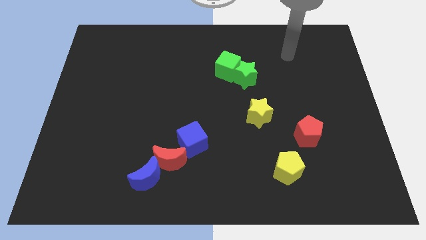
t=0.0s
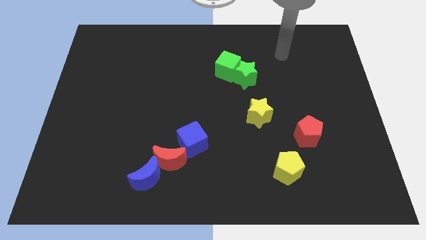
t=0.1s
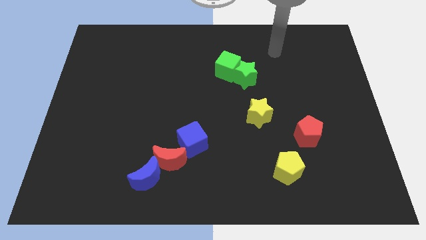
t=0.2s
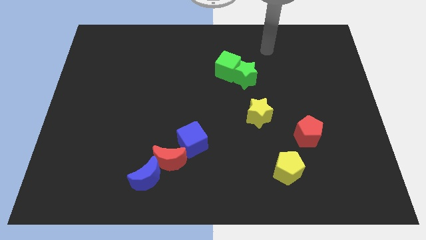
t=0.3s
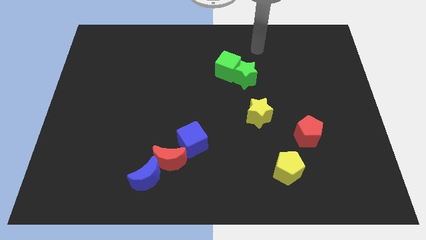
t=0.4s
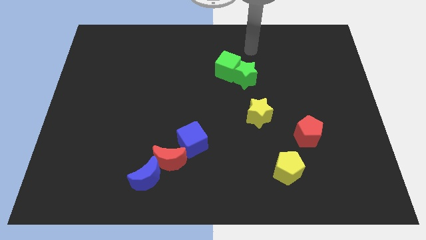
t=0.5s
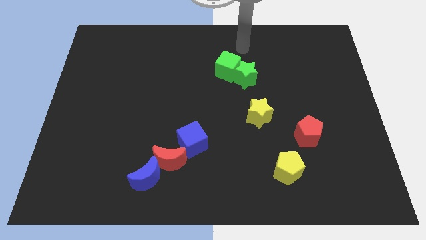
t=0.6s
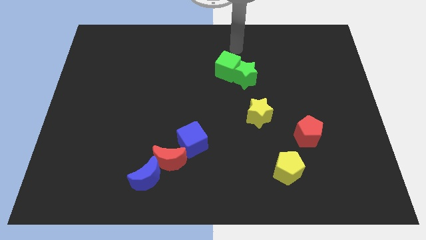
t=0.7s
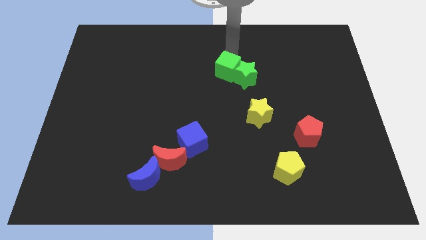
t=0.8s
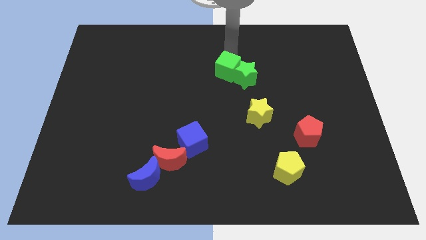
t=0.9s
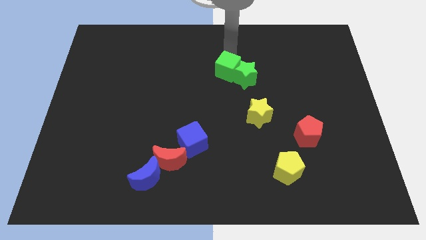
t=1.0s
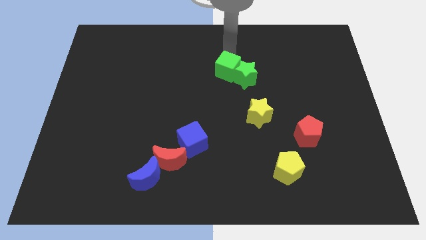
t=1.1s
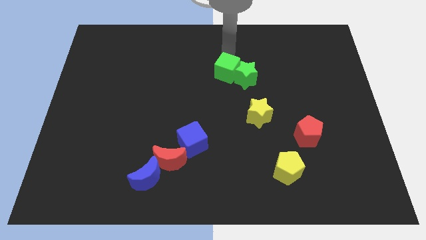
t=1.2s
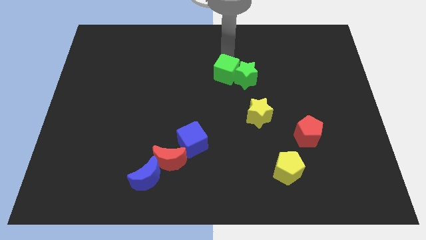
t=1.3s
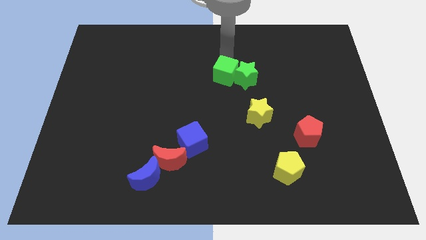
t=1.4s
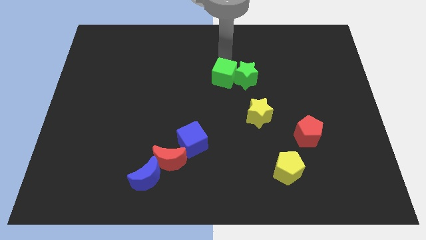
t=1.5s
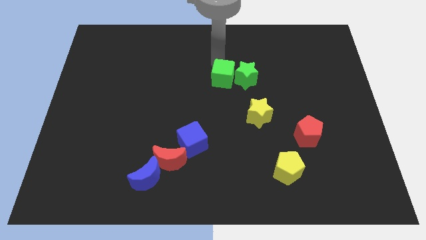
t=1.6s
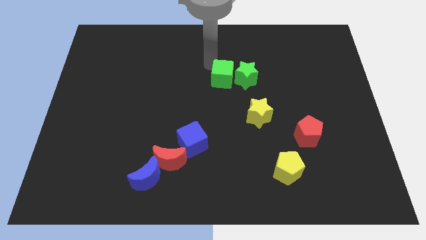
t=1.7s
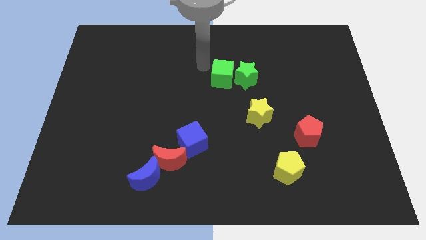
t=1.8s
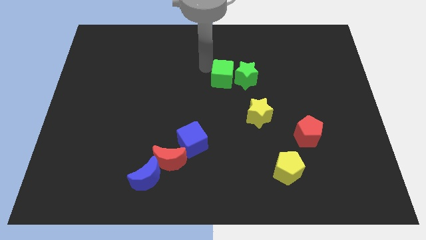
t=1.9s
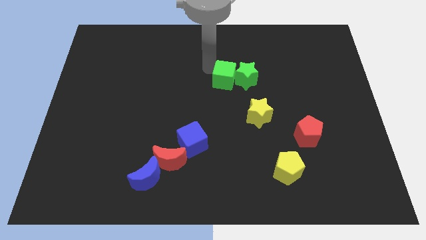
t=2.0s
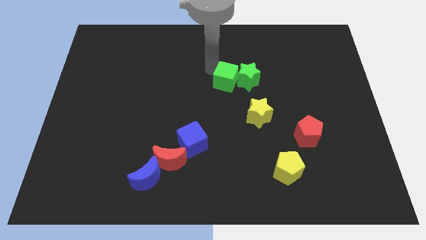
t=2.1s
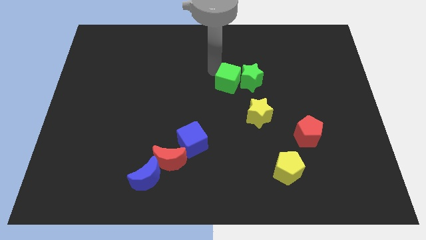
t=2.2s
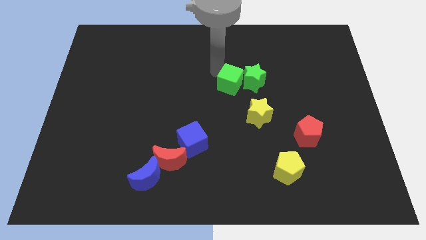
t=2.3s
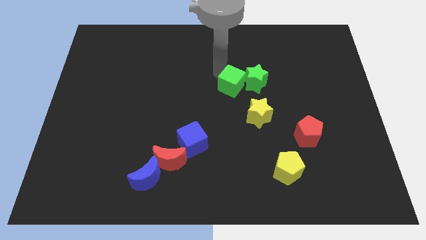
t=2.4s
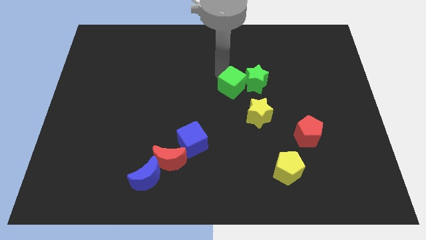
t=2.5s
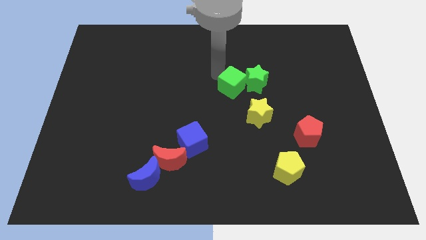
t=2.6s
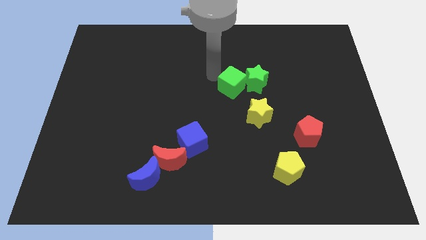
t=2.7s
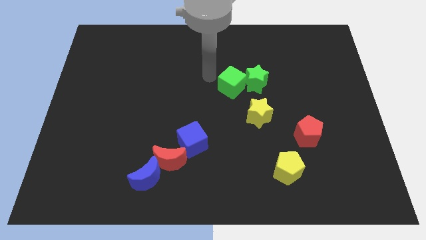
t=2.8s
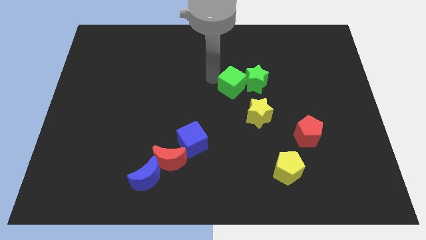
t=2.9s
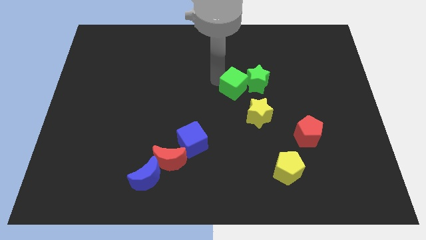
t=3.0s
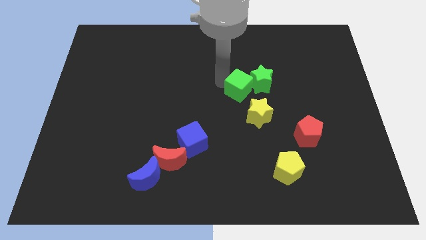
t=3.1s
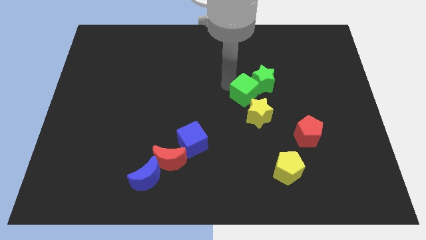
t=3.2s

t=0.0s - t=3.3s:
slightly push the green cube down and then right

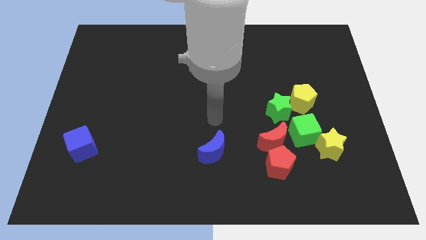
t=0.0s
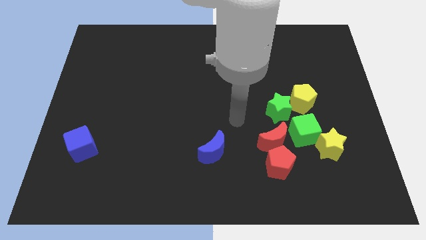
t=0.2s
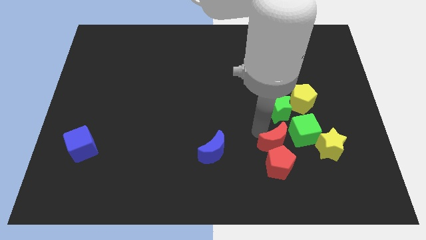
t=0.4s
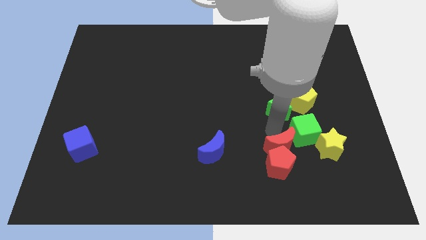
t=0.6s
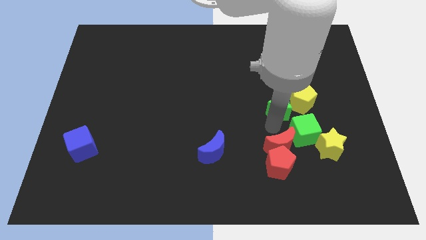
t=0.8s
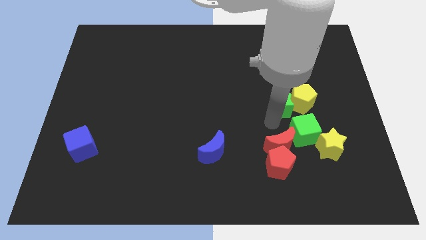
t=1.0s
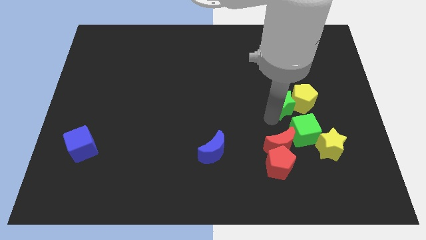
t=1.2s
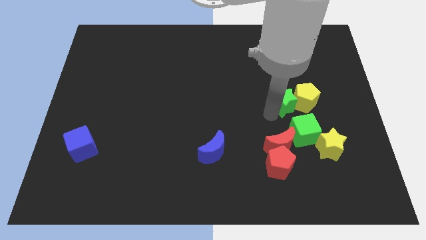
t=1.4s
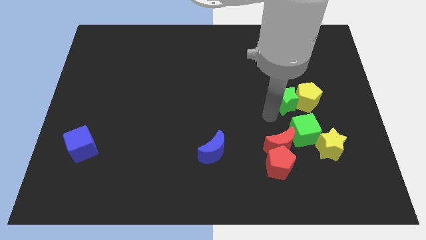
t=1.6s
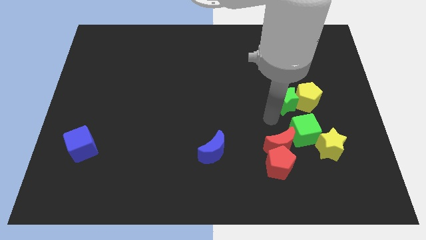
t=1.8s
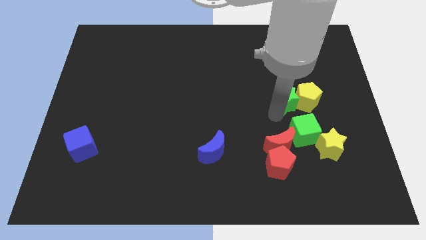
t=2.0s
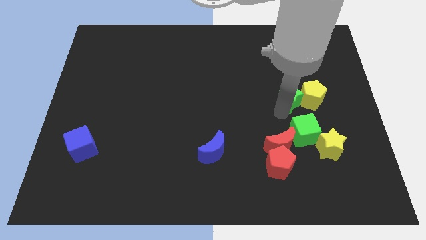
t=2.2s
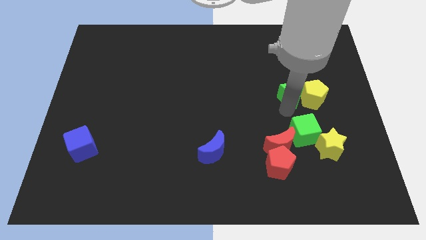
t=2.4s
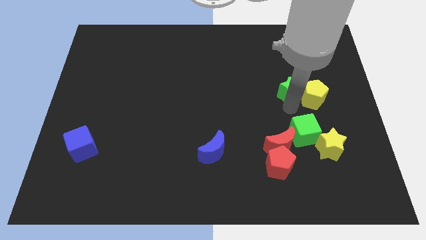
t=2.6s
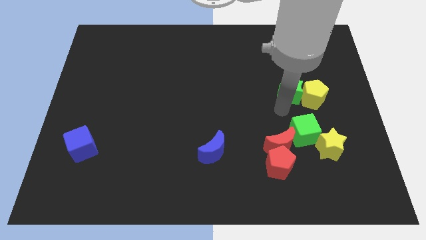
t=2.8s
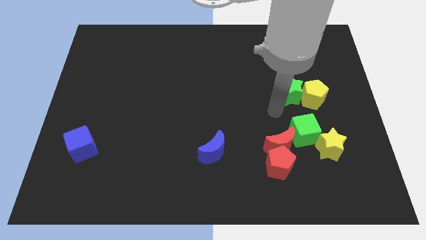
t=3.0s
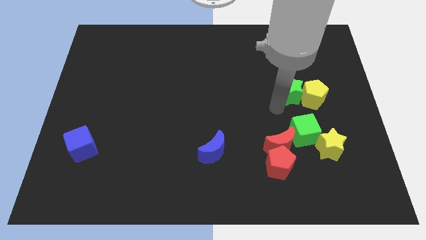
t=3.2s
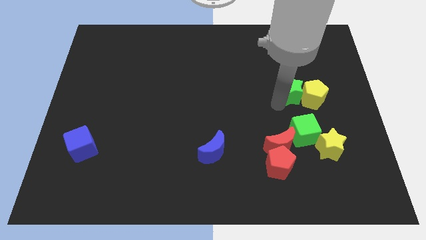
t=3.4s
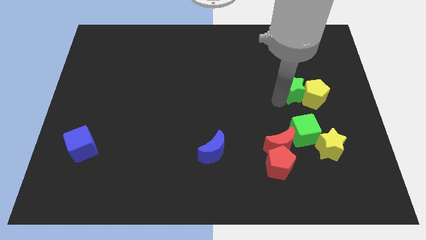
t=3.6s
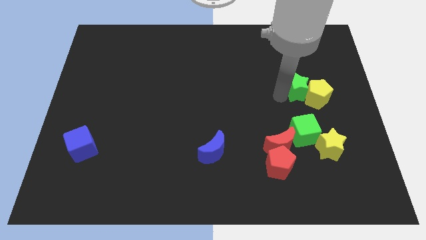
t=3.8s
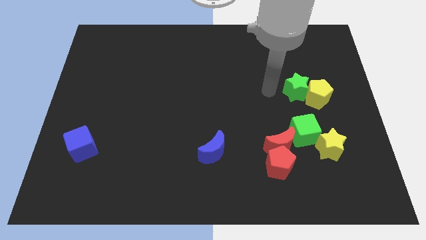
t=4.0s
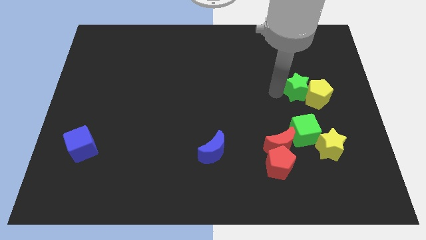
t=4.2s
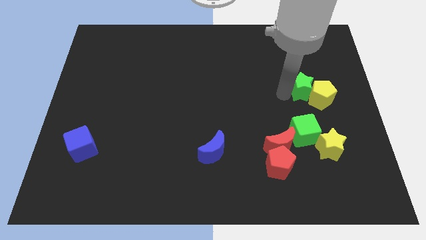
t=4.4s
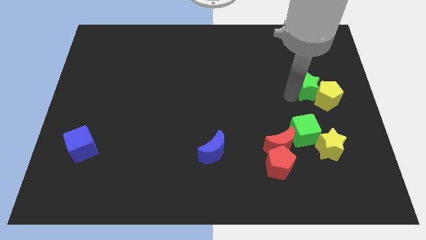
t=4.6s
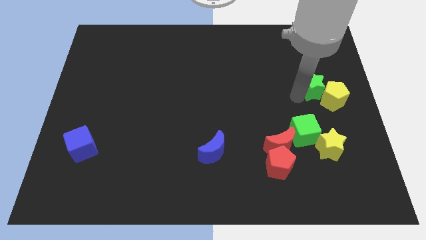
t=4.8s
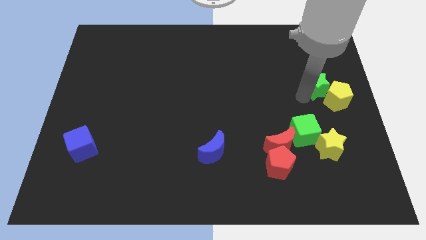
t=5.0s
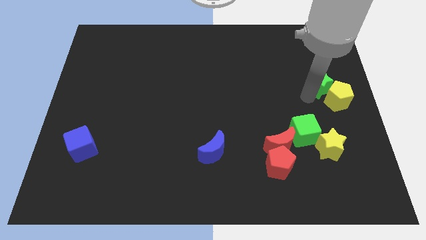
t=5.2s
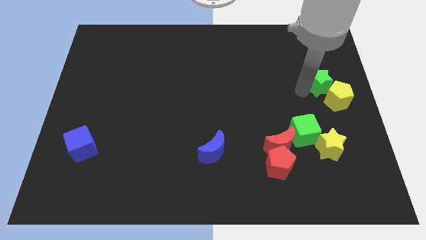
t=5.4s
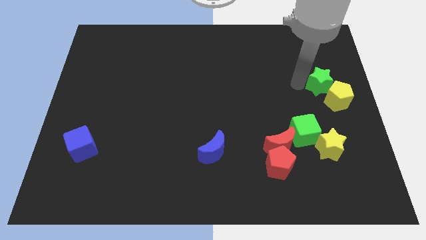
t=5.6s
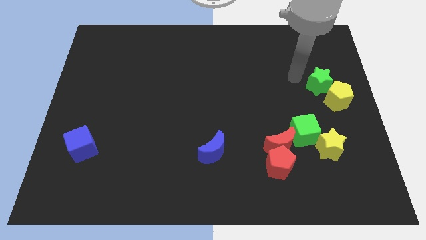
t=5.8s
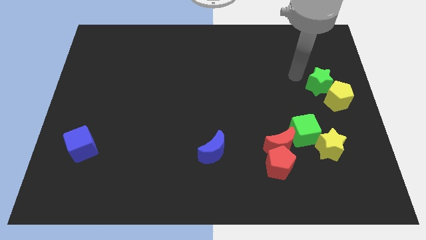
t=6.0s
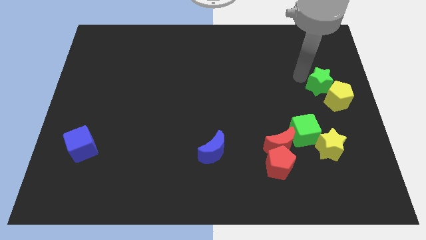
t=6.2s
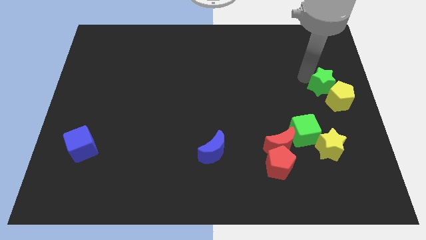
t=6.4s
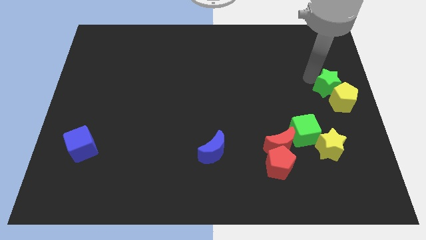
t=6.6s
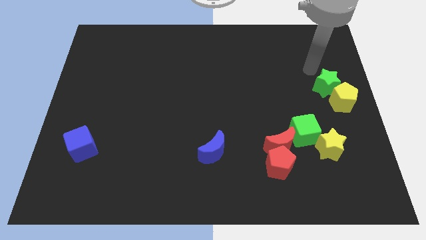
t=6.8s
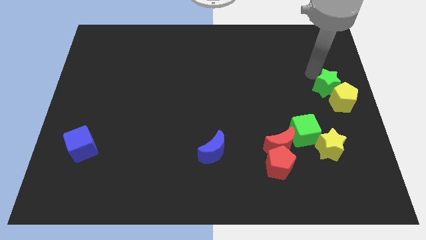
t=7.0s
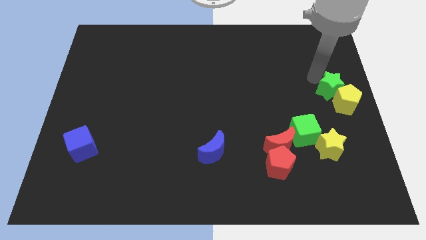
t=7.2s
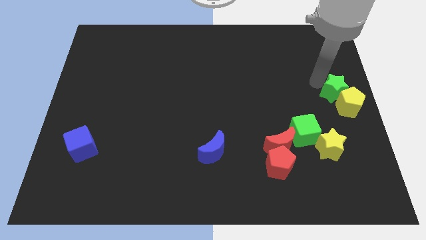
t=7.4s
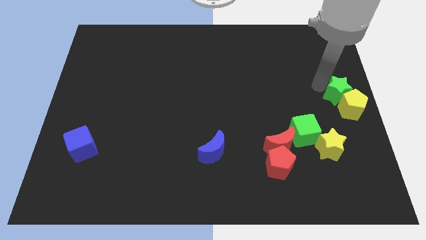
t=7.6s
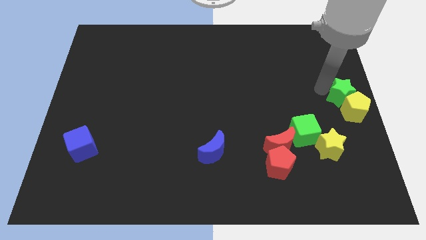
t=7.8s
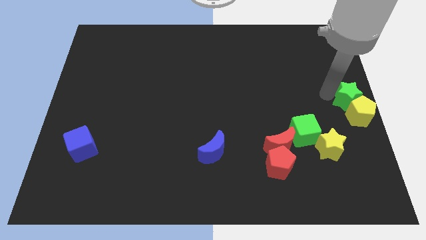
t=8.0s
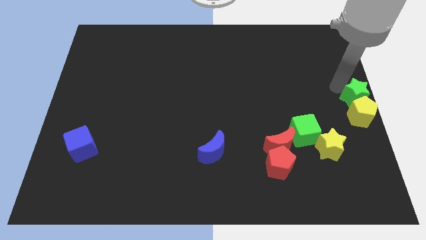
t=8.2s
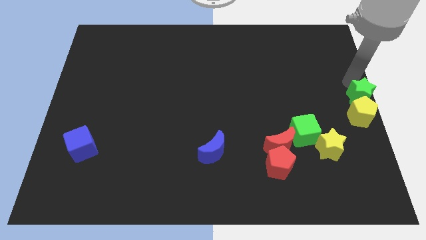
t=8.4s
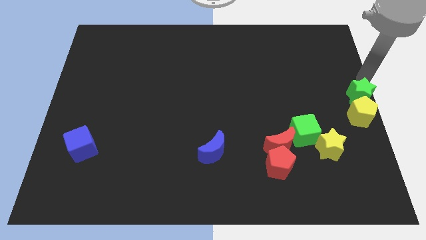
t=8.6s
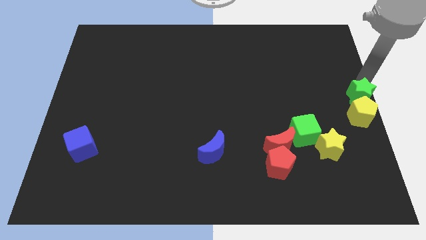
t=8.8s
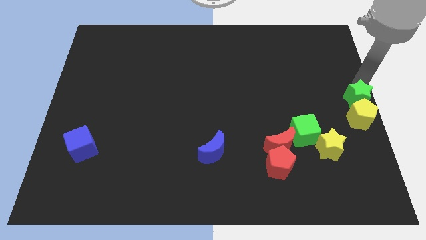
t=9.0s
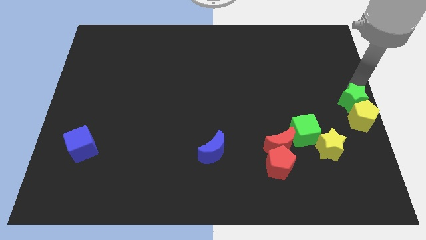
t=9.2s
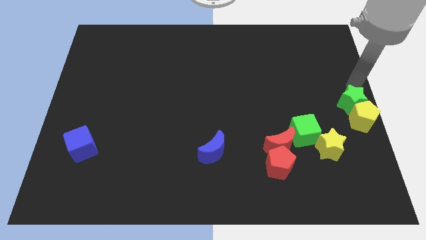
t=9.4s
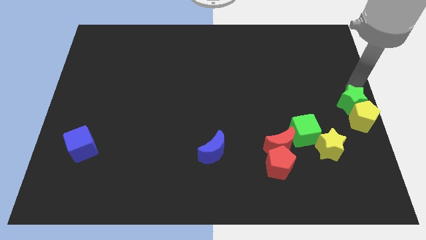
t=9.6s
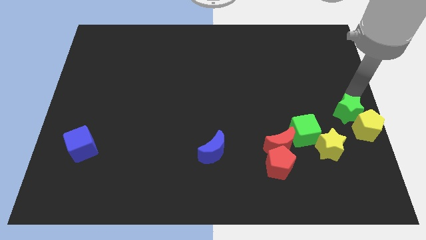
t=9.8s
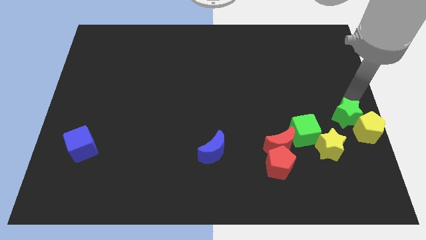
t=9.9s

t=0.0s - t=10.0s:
push the green star down and right diagonally a little
